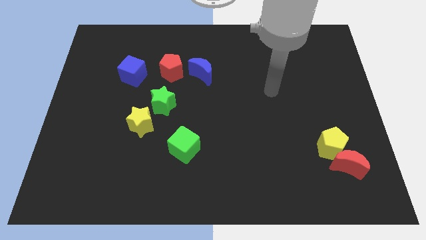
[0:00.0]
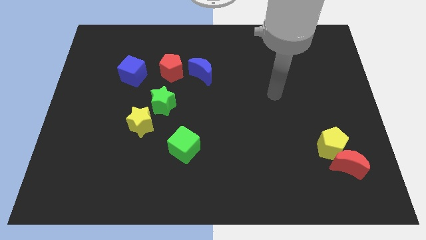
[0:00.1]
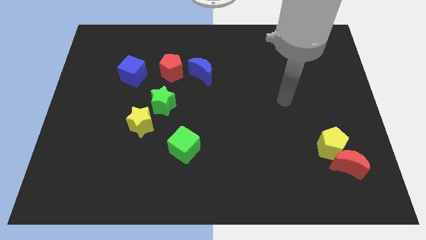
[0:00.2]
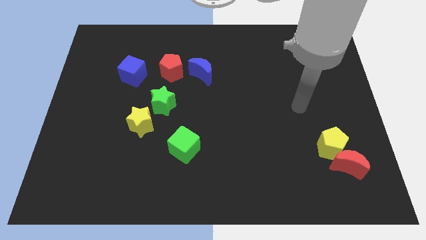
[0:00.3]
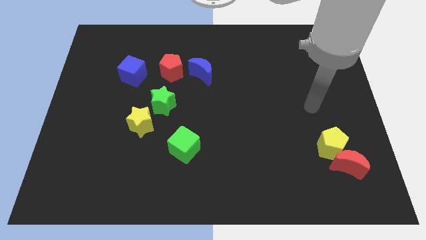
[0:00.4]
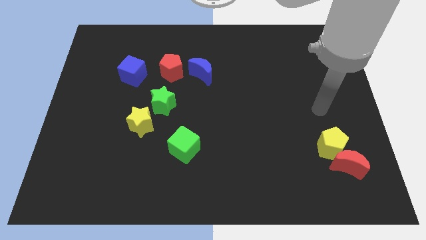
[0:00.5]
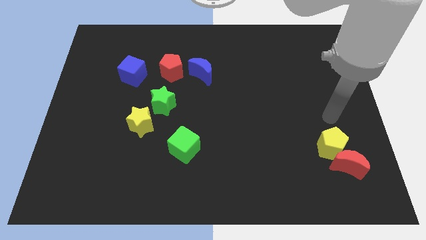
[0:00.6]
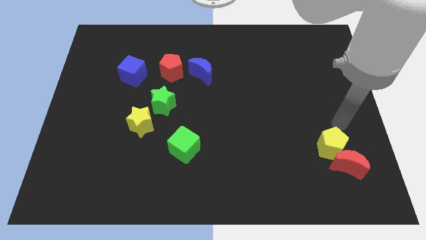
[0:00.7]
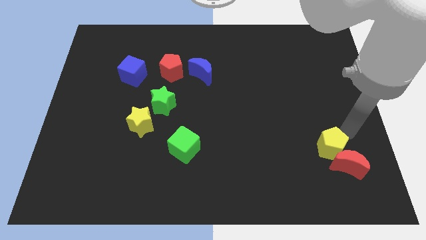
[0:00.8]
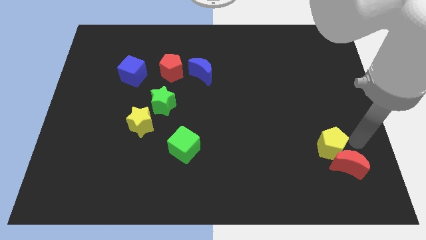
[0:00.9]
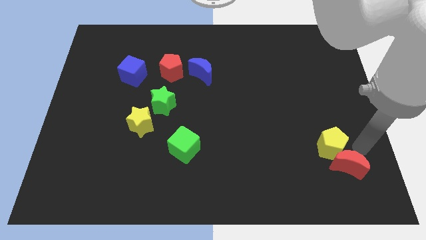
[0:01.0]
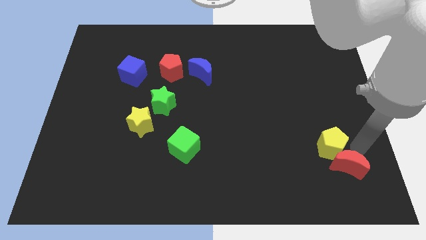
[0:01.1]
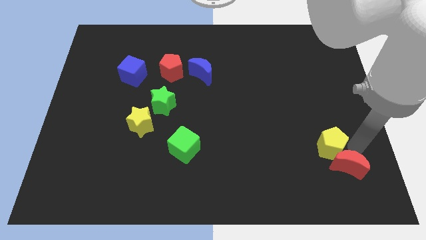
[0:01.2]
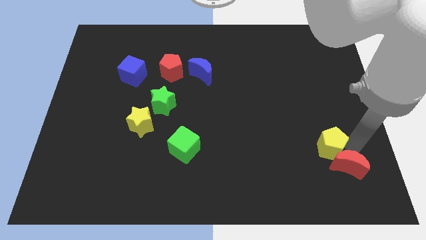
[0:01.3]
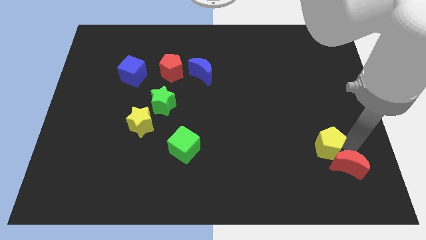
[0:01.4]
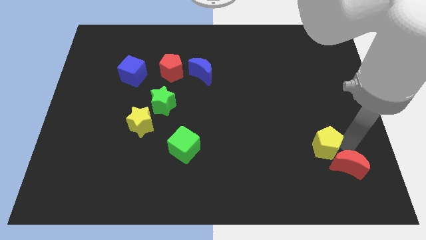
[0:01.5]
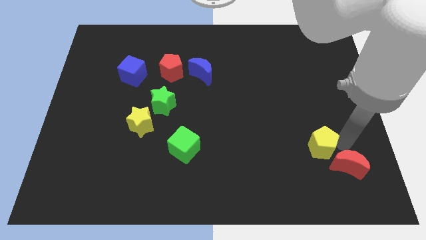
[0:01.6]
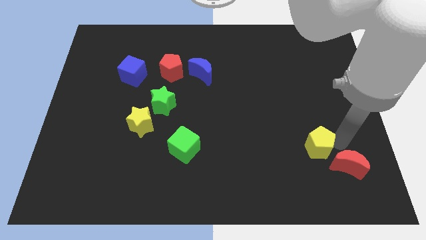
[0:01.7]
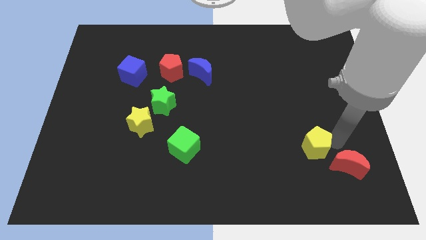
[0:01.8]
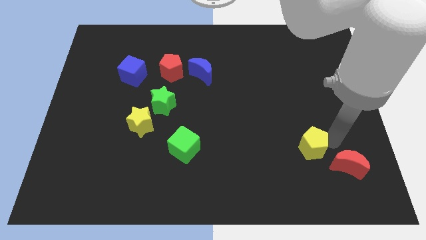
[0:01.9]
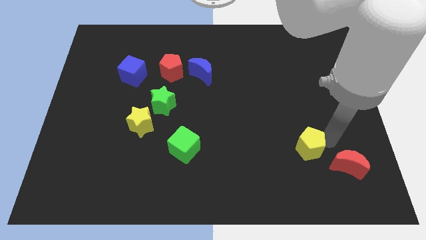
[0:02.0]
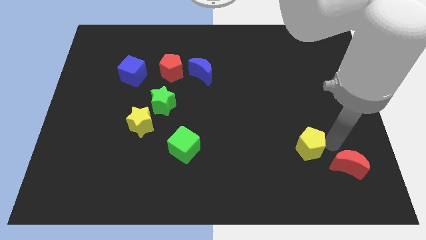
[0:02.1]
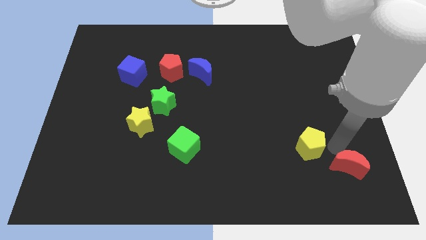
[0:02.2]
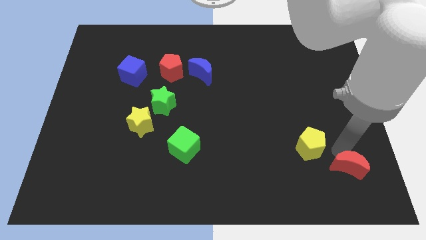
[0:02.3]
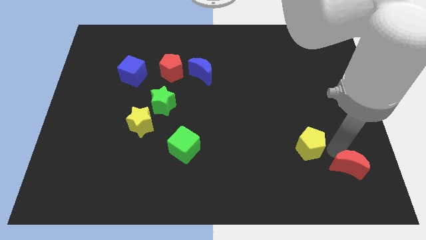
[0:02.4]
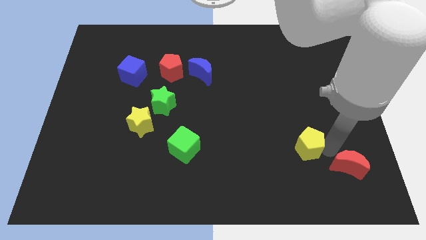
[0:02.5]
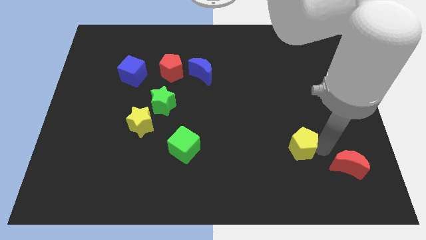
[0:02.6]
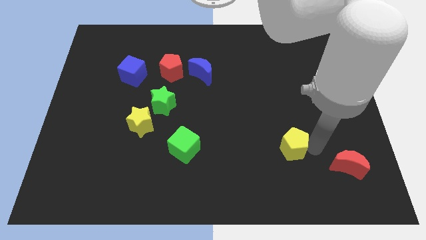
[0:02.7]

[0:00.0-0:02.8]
push the yellow pentagon to the left a bit

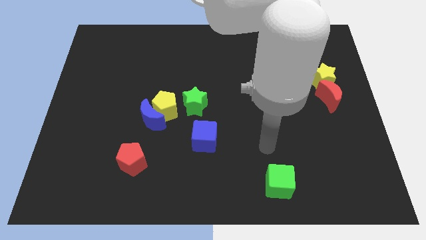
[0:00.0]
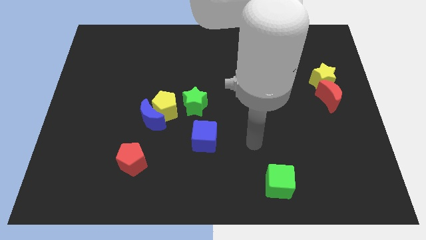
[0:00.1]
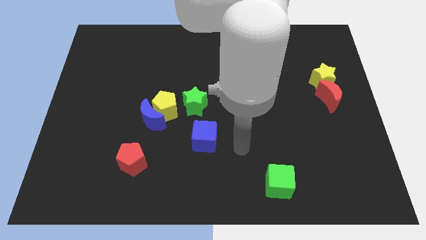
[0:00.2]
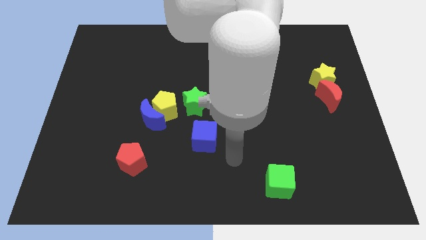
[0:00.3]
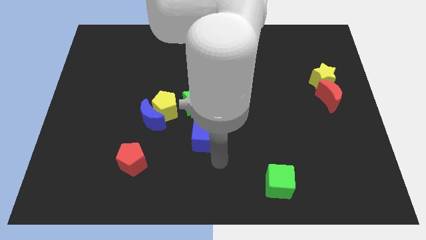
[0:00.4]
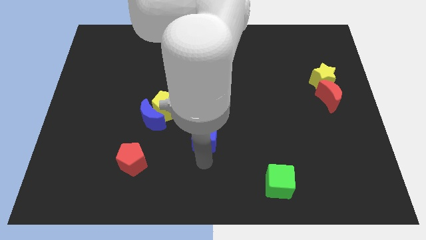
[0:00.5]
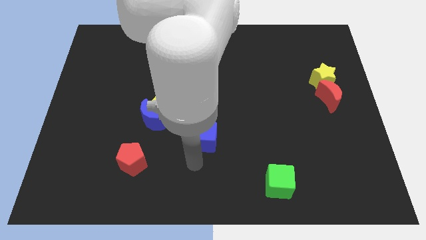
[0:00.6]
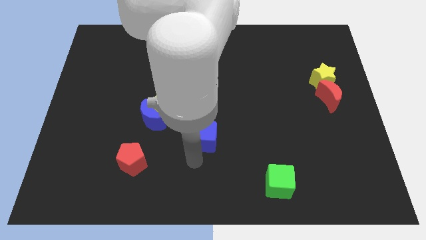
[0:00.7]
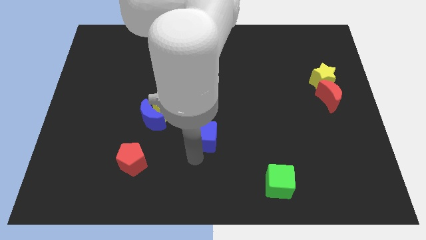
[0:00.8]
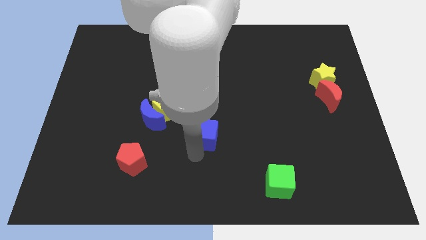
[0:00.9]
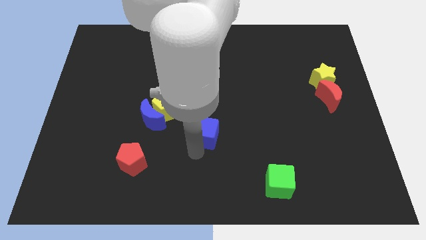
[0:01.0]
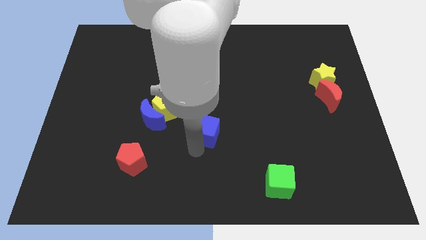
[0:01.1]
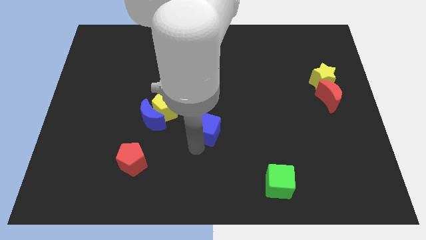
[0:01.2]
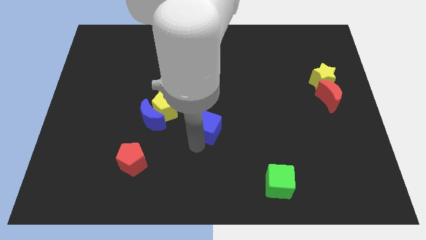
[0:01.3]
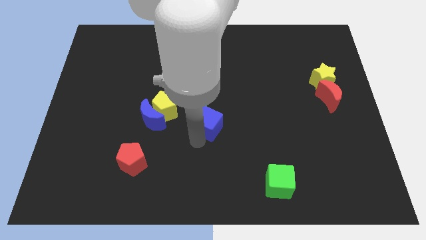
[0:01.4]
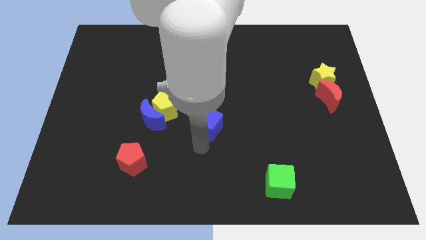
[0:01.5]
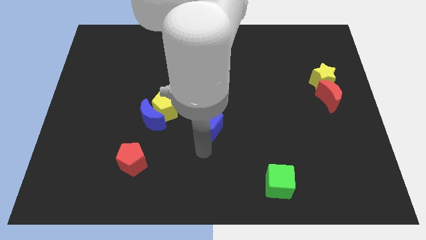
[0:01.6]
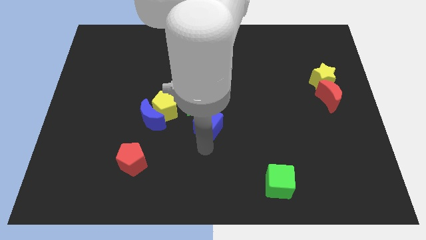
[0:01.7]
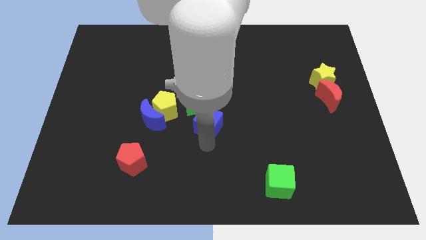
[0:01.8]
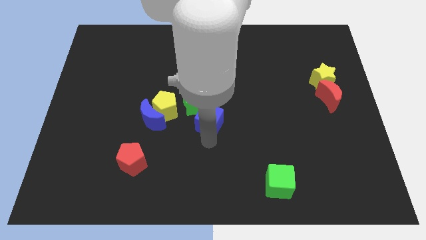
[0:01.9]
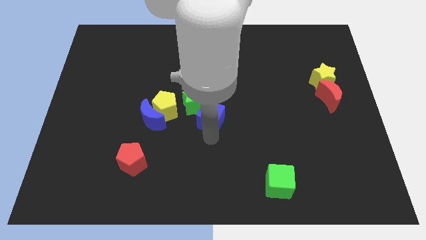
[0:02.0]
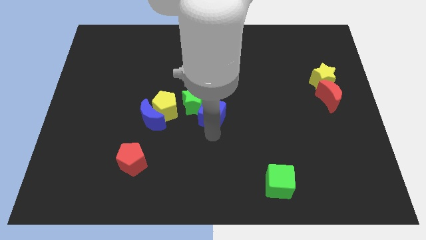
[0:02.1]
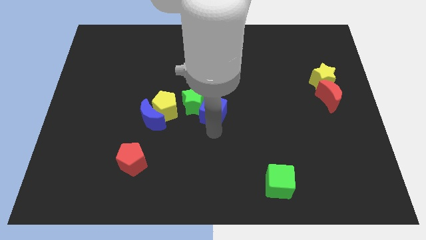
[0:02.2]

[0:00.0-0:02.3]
push the blue cube upwards a bit

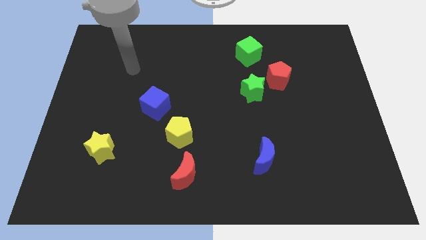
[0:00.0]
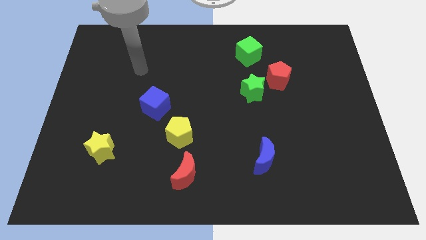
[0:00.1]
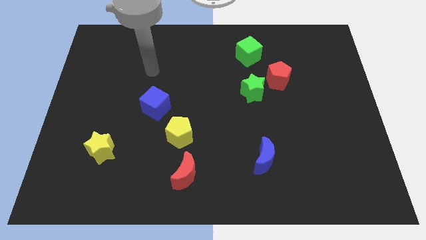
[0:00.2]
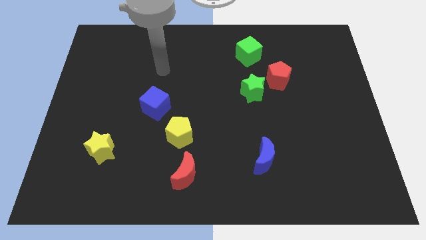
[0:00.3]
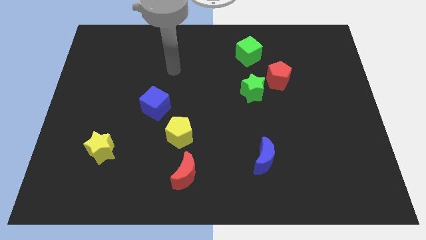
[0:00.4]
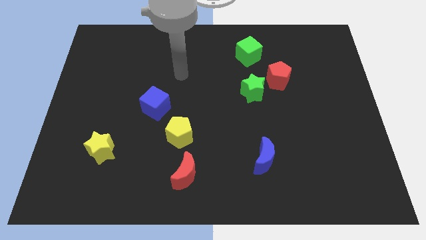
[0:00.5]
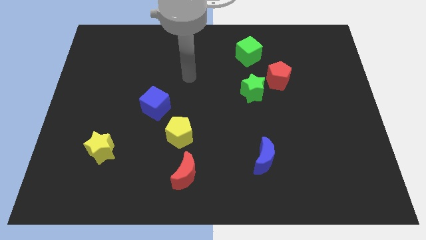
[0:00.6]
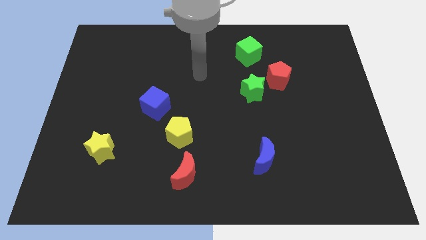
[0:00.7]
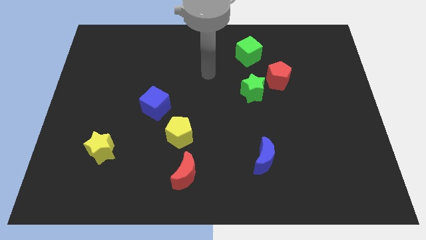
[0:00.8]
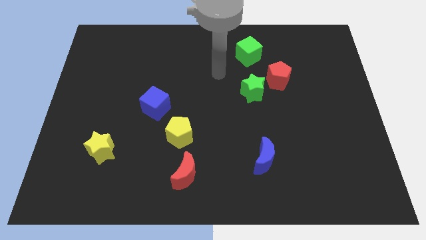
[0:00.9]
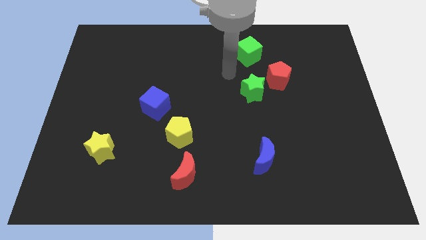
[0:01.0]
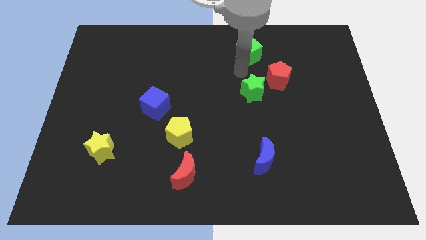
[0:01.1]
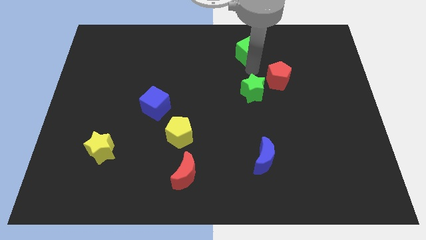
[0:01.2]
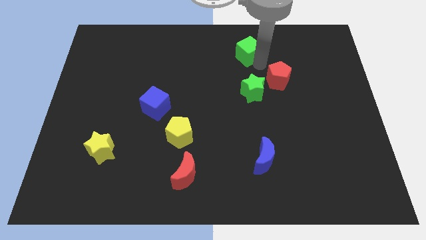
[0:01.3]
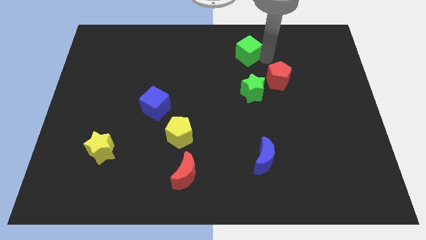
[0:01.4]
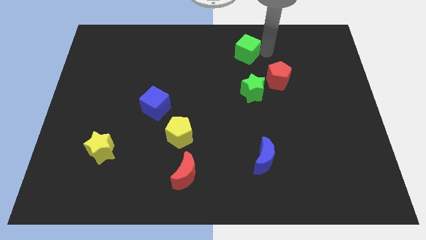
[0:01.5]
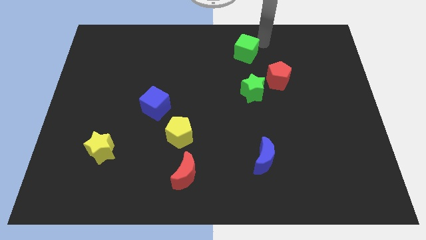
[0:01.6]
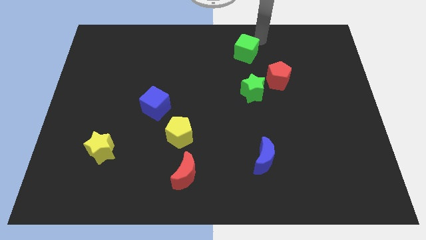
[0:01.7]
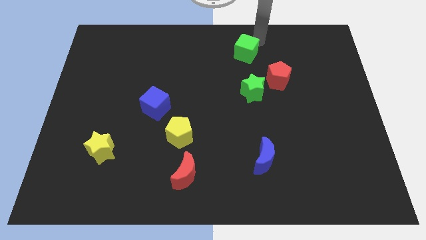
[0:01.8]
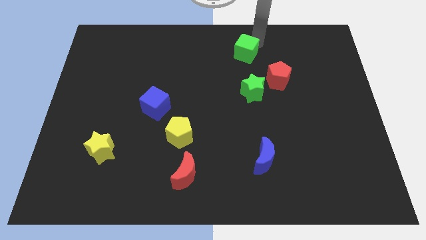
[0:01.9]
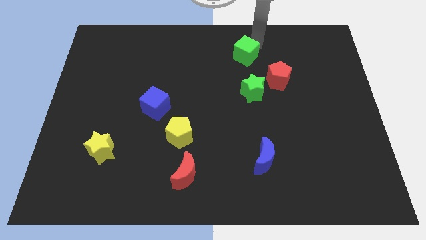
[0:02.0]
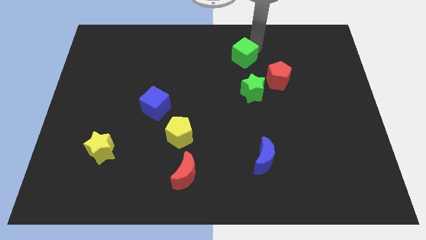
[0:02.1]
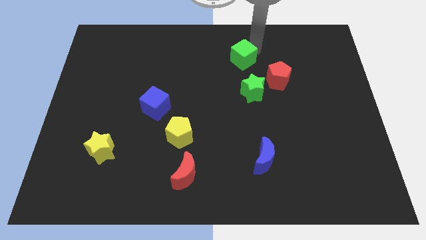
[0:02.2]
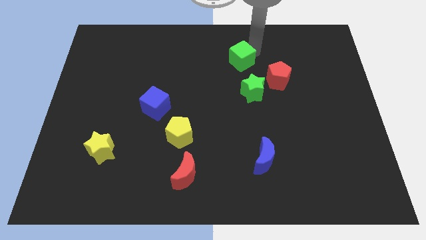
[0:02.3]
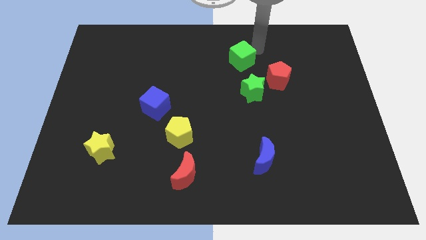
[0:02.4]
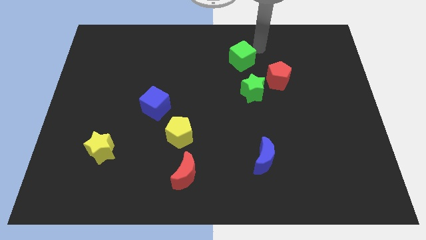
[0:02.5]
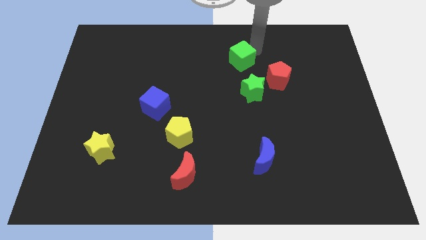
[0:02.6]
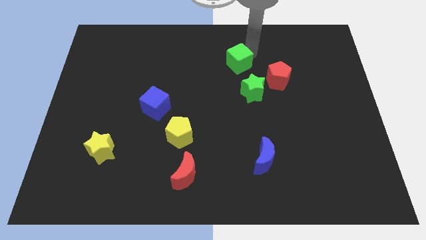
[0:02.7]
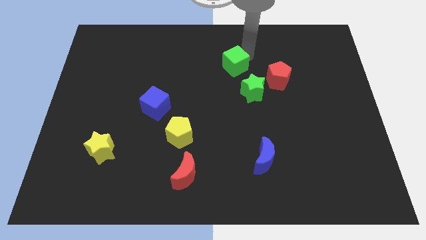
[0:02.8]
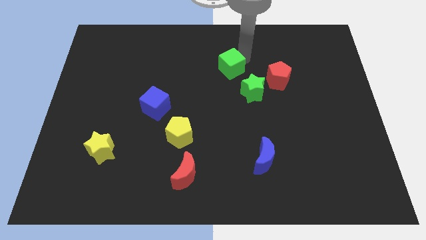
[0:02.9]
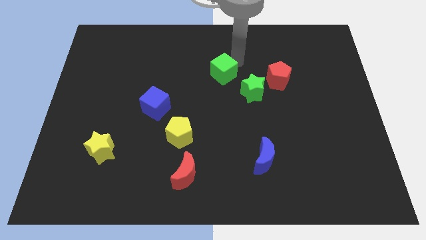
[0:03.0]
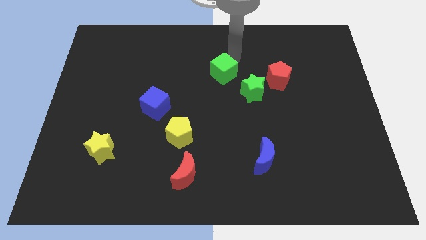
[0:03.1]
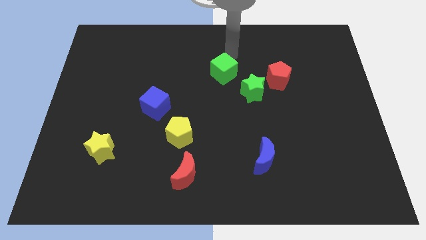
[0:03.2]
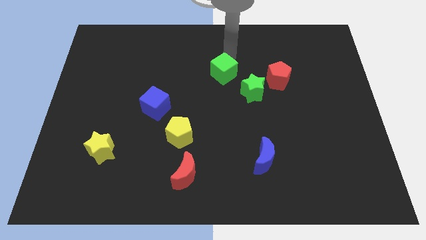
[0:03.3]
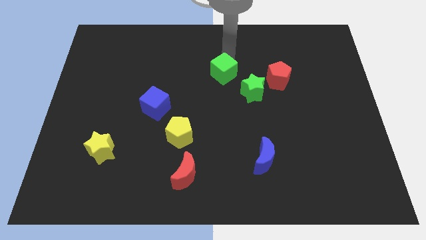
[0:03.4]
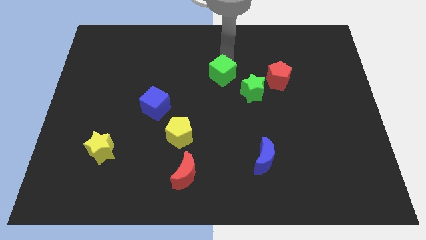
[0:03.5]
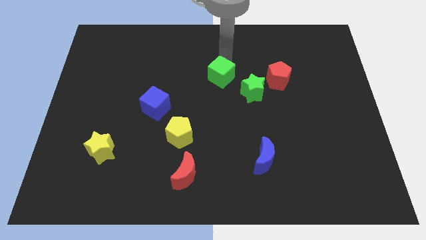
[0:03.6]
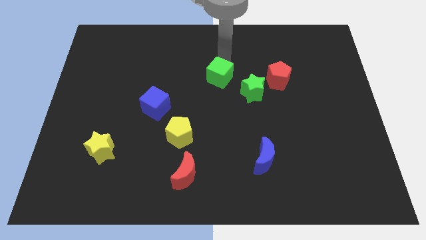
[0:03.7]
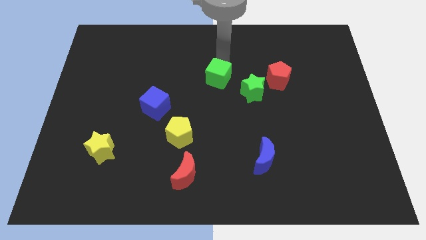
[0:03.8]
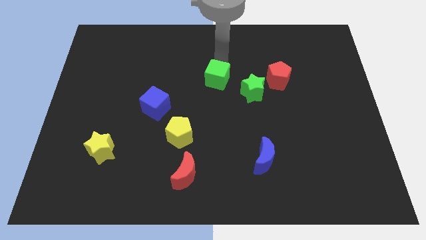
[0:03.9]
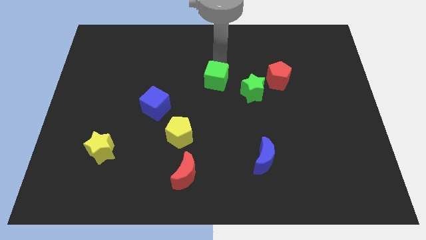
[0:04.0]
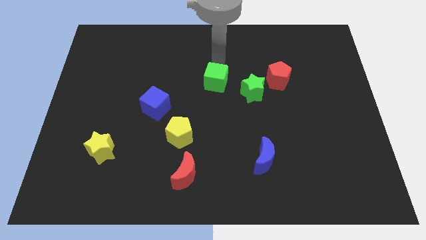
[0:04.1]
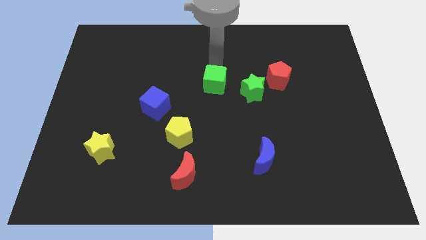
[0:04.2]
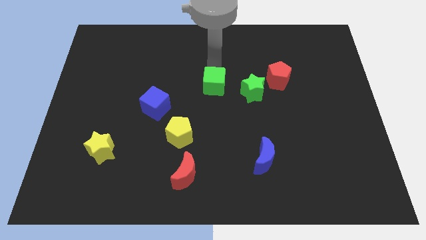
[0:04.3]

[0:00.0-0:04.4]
slide the green cube down slightly
